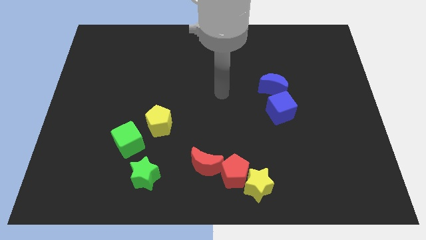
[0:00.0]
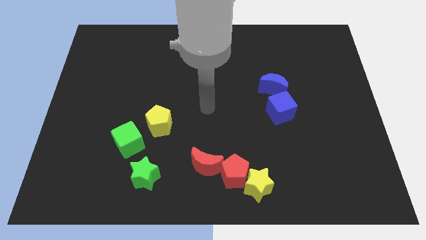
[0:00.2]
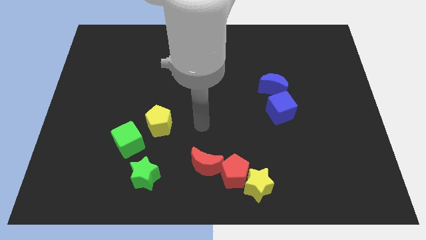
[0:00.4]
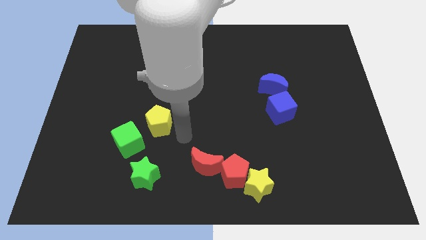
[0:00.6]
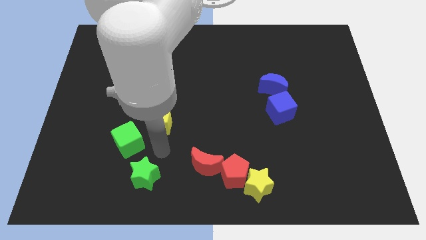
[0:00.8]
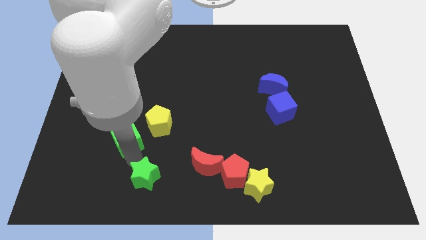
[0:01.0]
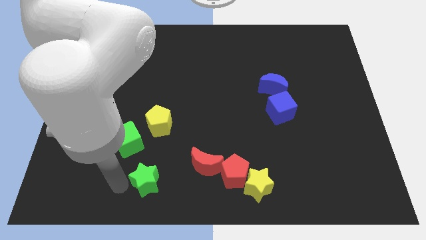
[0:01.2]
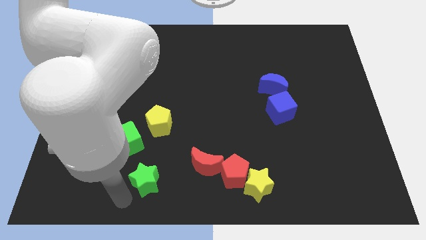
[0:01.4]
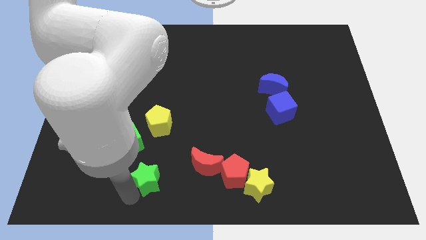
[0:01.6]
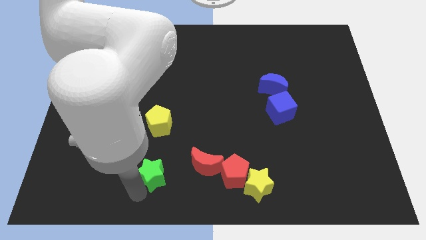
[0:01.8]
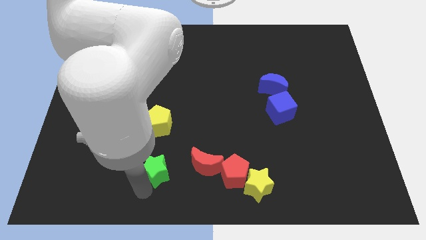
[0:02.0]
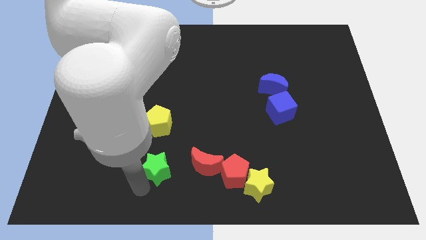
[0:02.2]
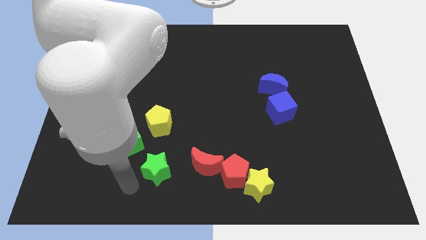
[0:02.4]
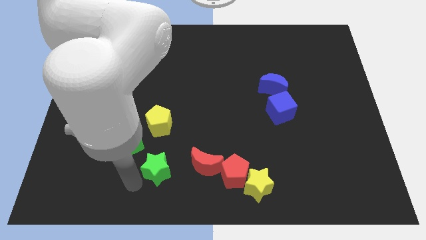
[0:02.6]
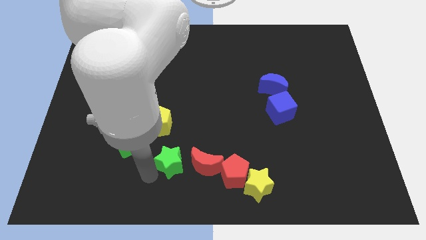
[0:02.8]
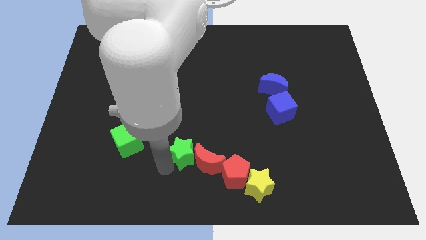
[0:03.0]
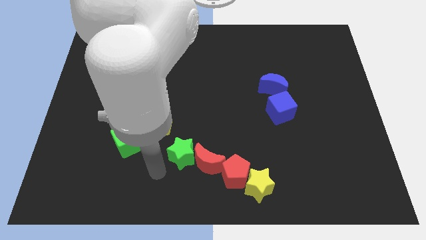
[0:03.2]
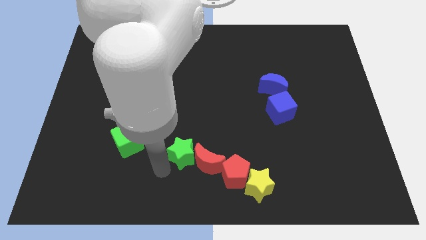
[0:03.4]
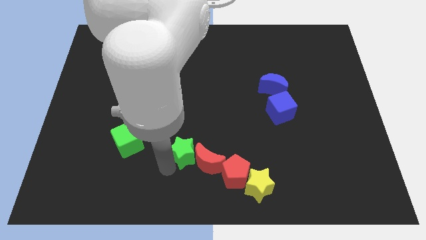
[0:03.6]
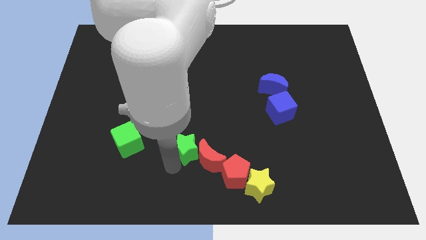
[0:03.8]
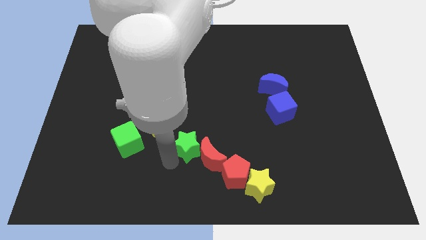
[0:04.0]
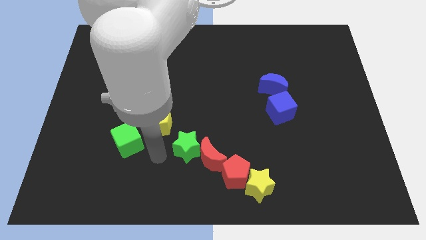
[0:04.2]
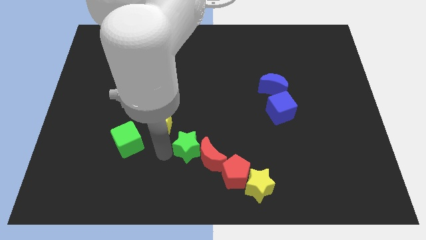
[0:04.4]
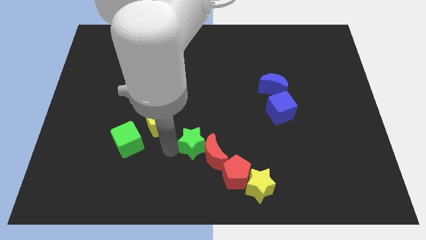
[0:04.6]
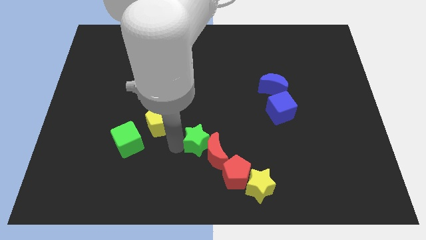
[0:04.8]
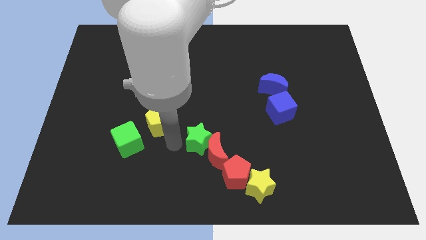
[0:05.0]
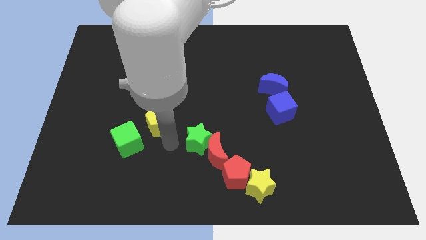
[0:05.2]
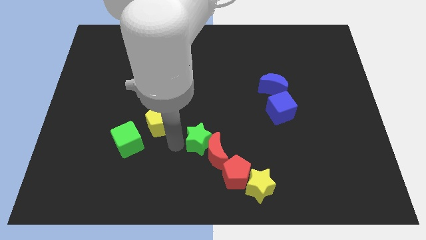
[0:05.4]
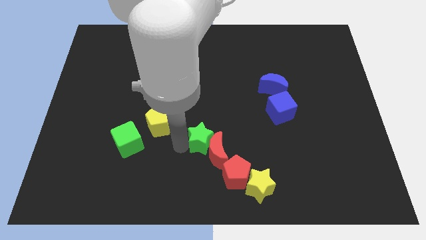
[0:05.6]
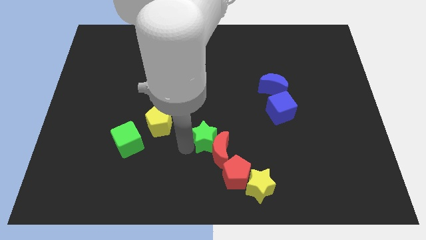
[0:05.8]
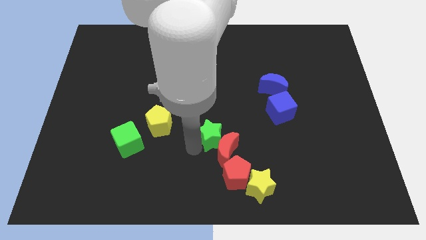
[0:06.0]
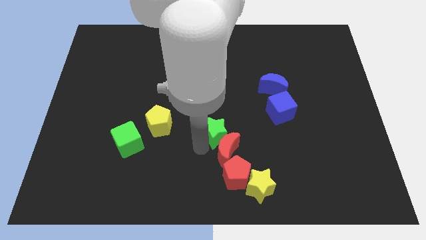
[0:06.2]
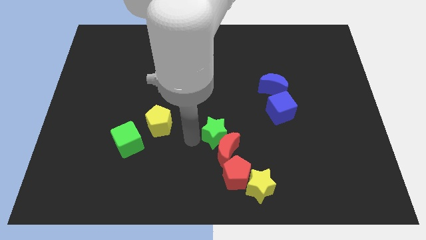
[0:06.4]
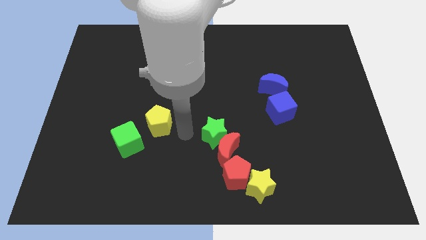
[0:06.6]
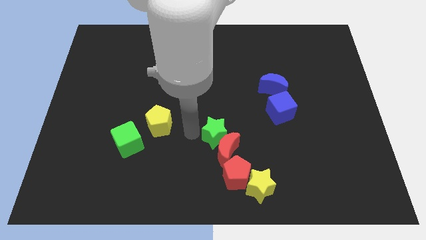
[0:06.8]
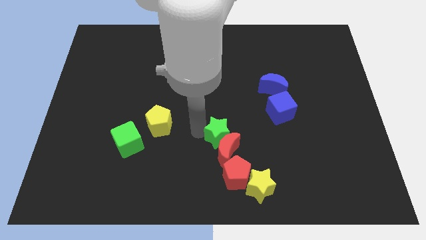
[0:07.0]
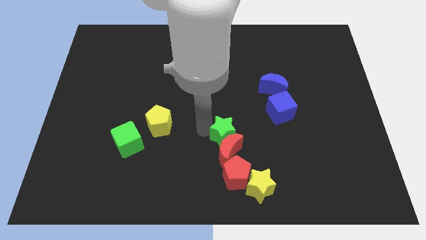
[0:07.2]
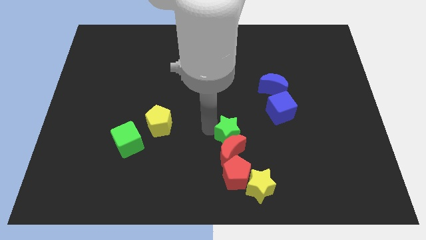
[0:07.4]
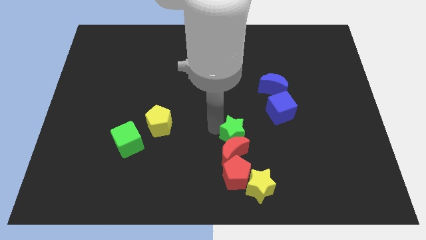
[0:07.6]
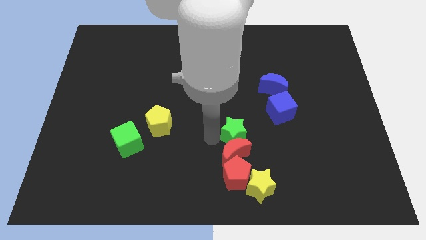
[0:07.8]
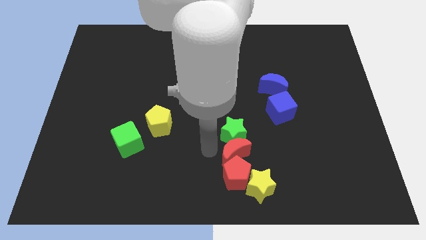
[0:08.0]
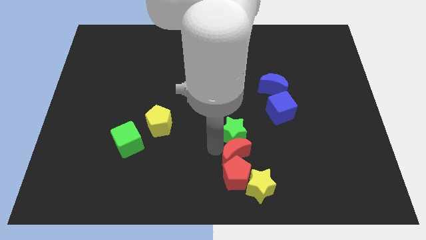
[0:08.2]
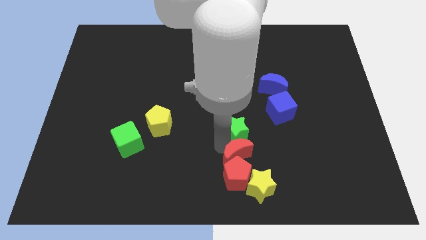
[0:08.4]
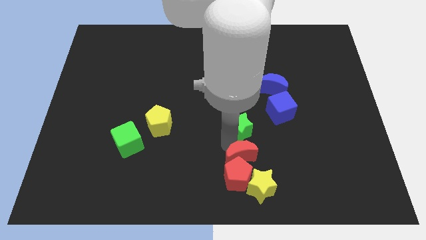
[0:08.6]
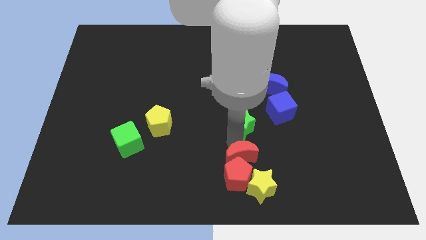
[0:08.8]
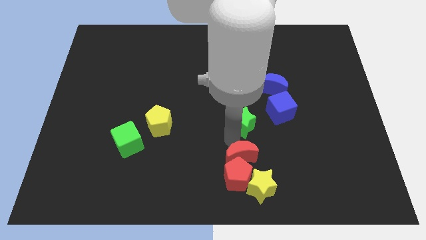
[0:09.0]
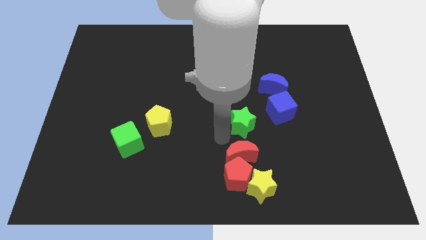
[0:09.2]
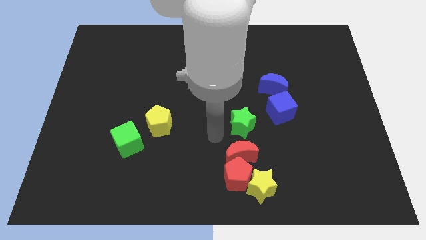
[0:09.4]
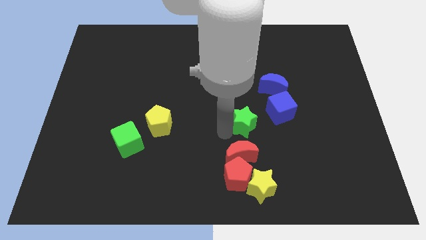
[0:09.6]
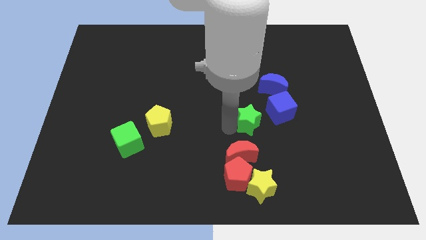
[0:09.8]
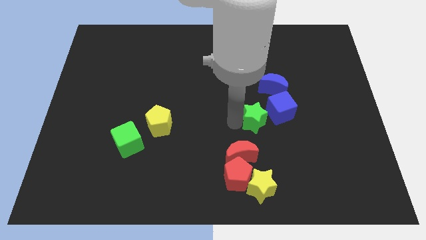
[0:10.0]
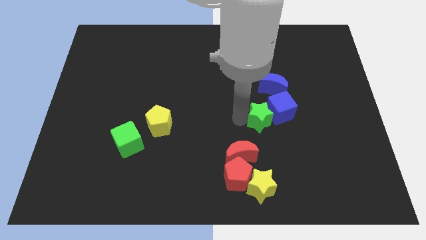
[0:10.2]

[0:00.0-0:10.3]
push the green star close to the blue cube

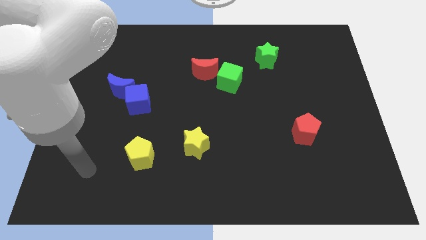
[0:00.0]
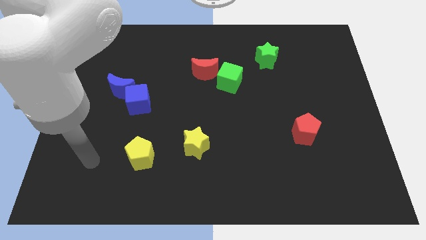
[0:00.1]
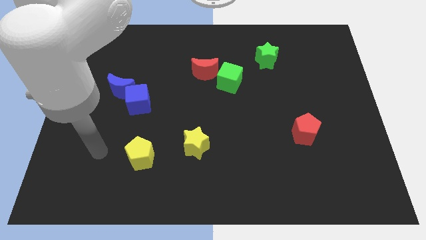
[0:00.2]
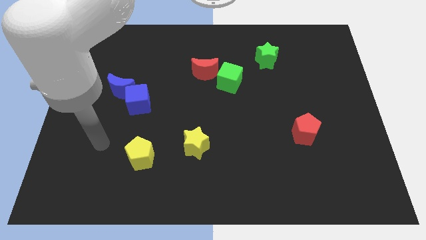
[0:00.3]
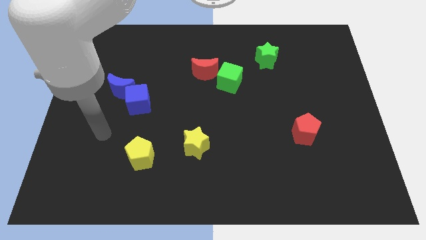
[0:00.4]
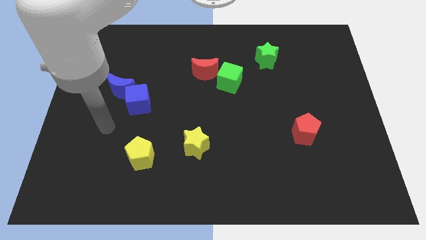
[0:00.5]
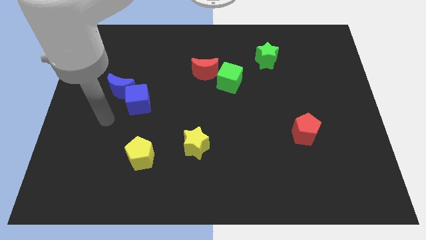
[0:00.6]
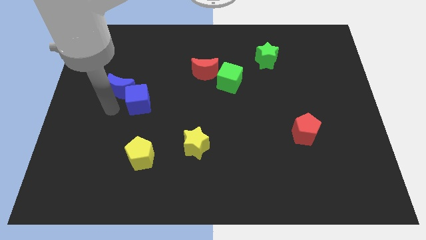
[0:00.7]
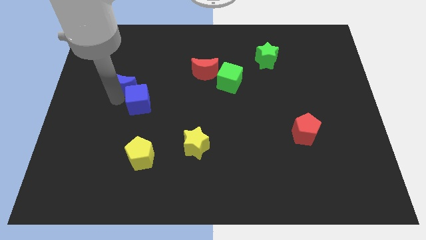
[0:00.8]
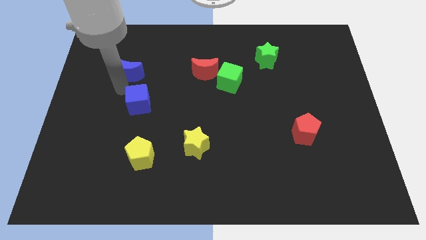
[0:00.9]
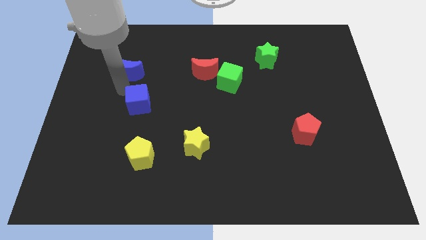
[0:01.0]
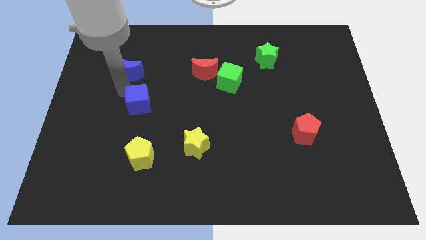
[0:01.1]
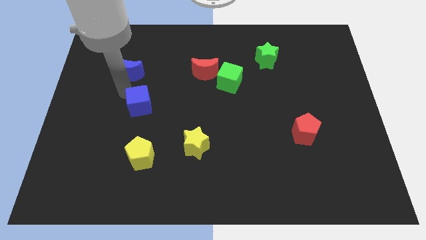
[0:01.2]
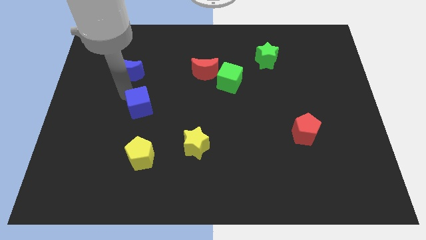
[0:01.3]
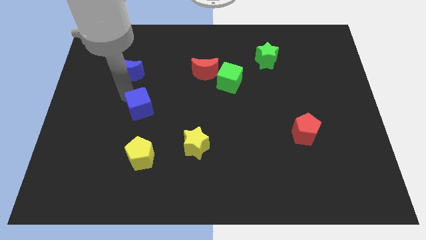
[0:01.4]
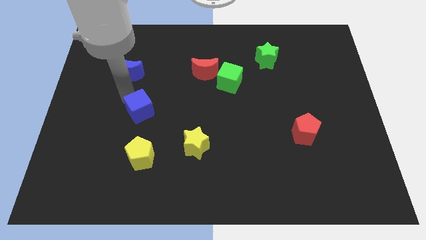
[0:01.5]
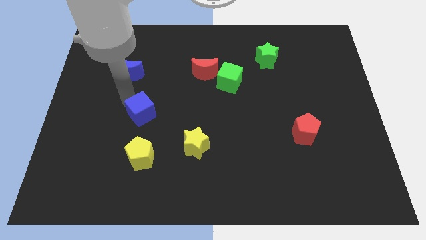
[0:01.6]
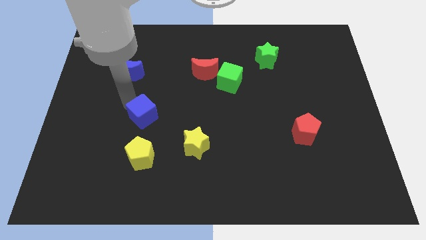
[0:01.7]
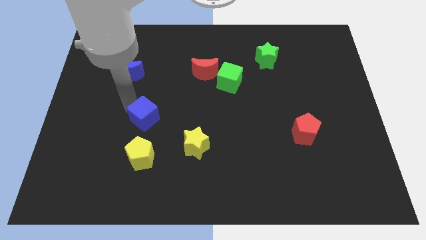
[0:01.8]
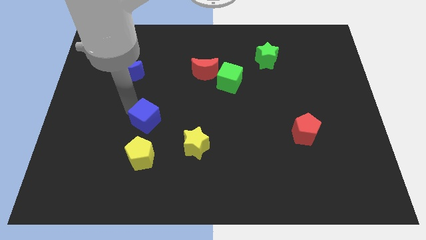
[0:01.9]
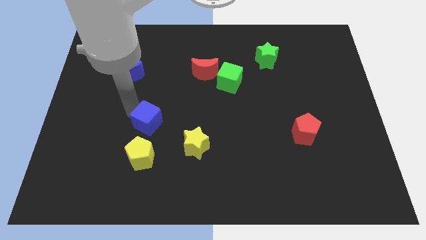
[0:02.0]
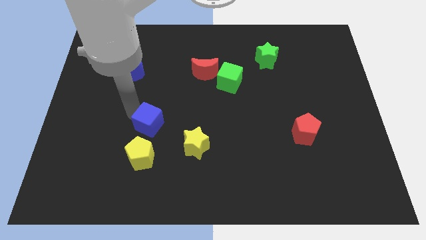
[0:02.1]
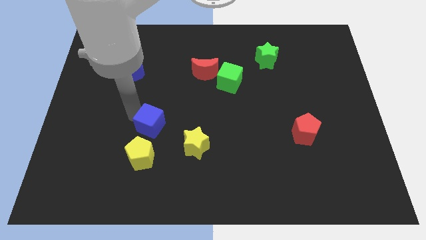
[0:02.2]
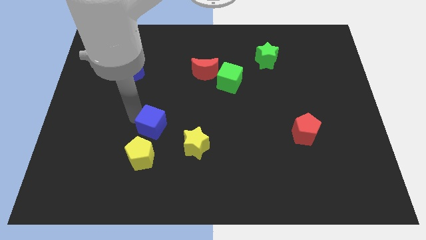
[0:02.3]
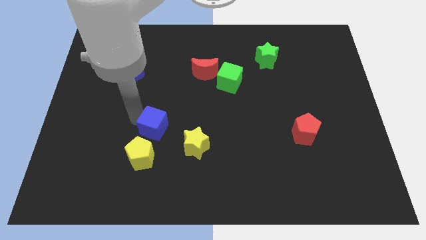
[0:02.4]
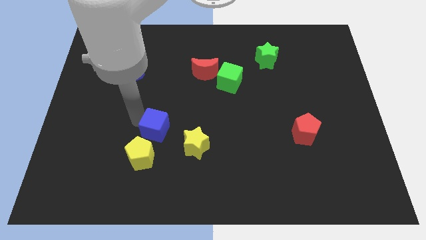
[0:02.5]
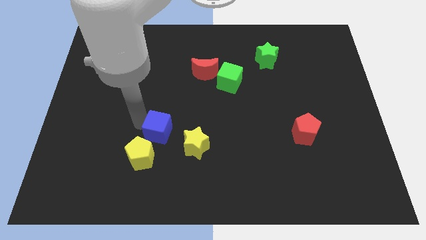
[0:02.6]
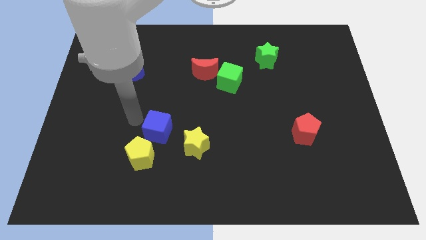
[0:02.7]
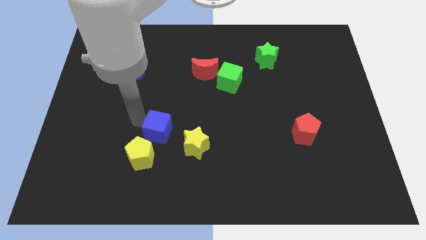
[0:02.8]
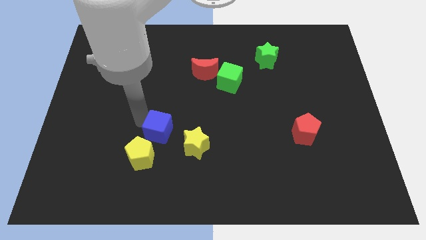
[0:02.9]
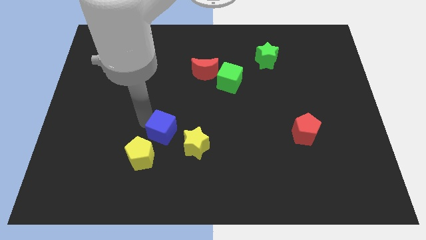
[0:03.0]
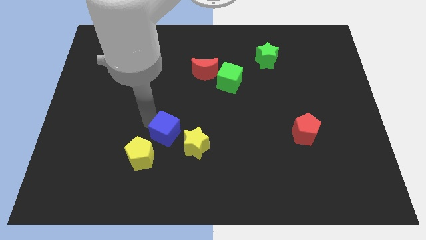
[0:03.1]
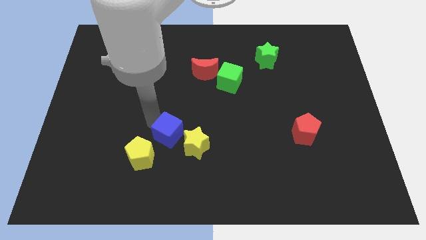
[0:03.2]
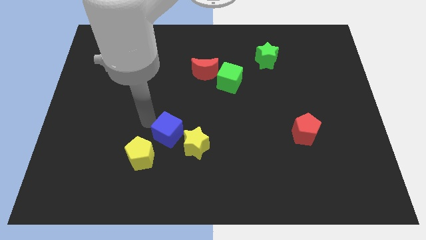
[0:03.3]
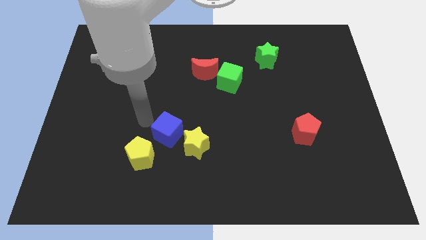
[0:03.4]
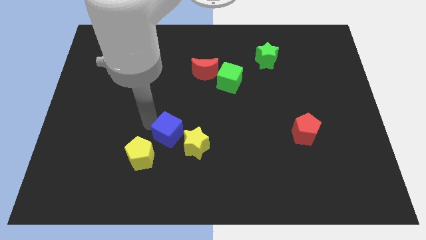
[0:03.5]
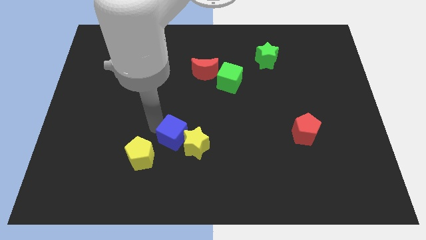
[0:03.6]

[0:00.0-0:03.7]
put the blue cube towards the yellow star
